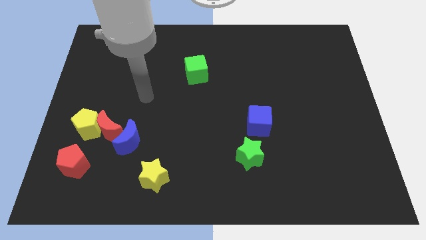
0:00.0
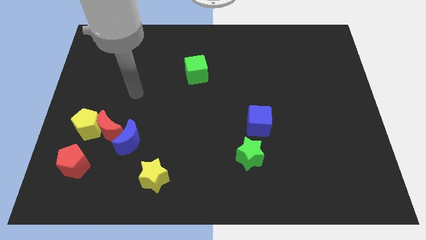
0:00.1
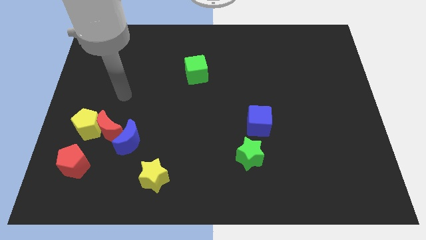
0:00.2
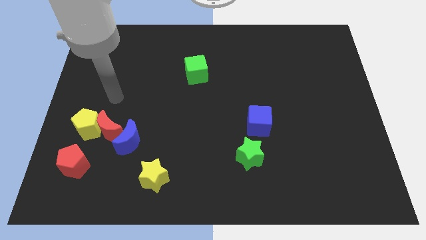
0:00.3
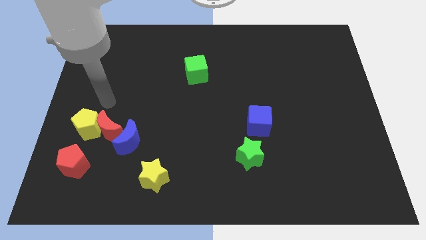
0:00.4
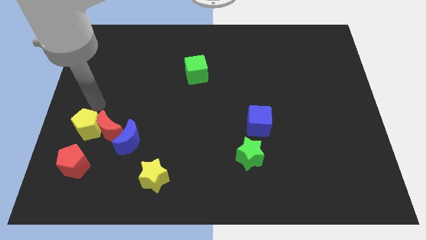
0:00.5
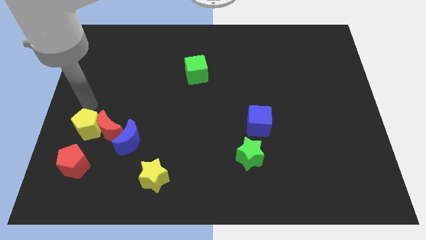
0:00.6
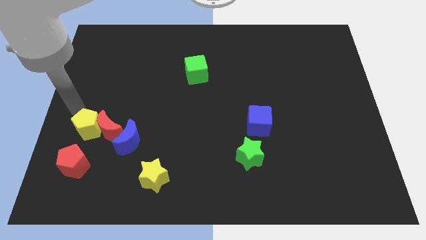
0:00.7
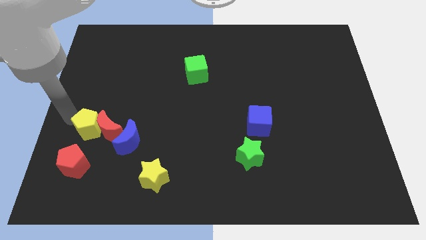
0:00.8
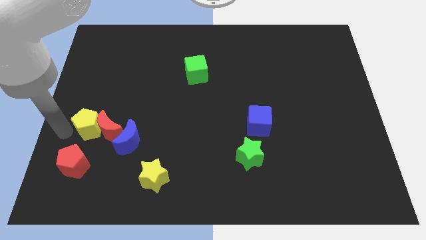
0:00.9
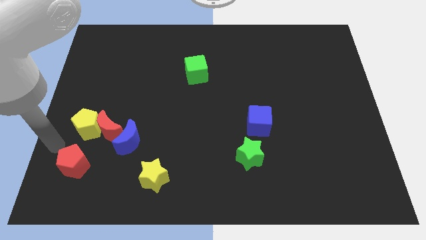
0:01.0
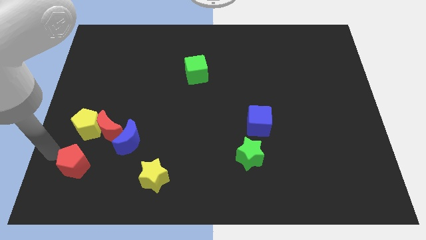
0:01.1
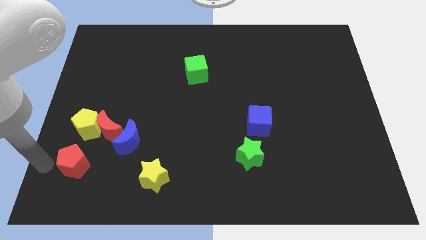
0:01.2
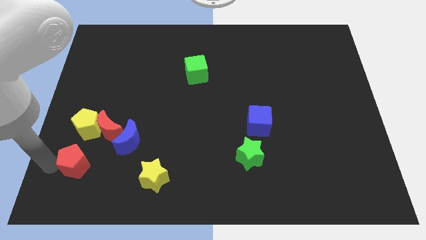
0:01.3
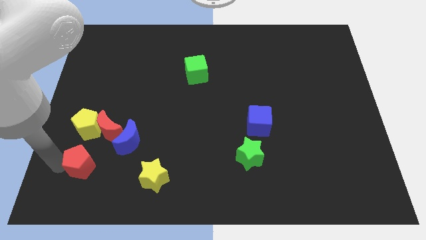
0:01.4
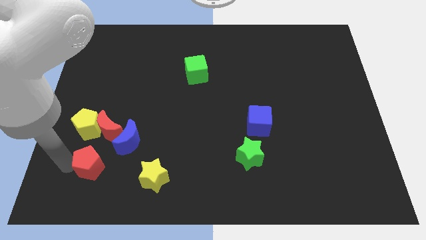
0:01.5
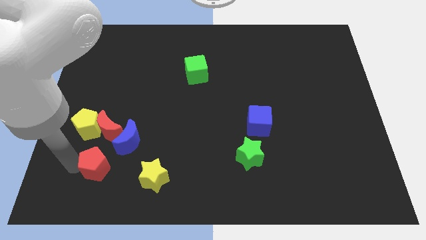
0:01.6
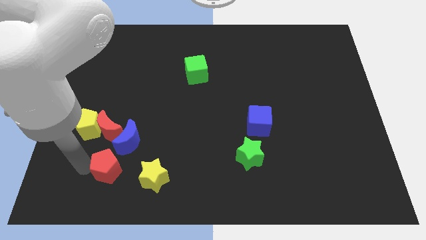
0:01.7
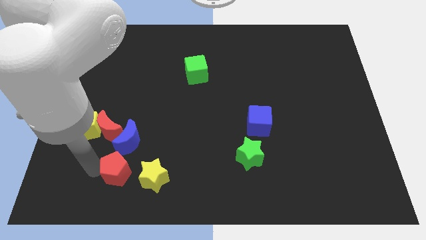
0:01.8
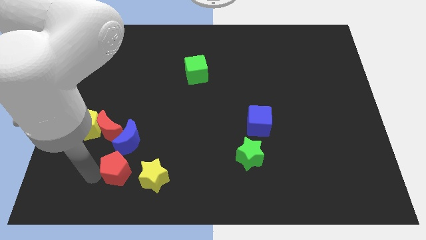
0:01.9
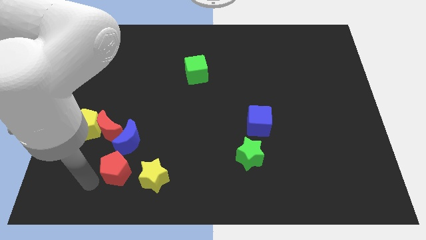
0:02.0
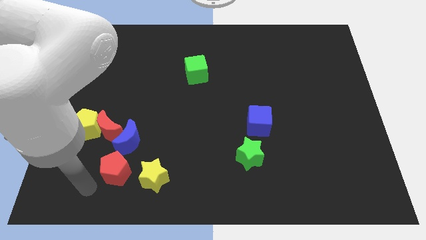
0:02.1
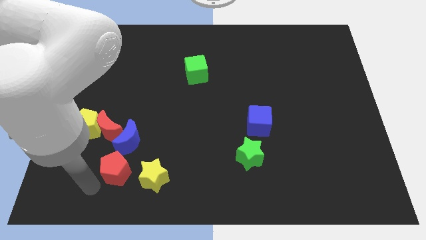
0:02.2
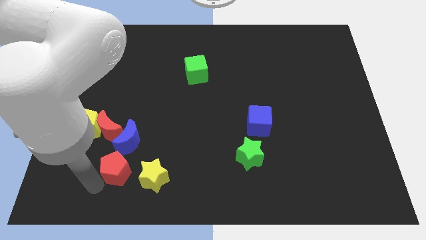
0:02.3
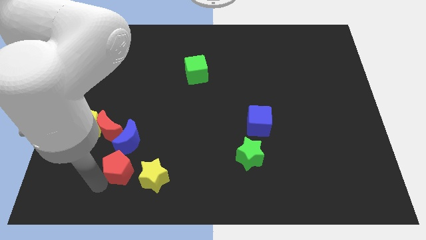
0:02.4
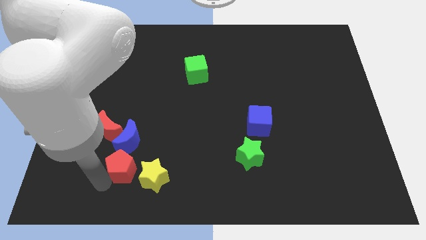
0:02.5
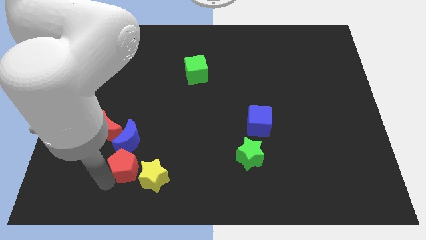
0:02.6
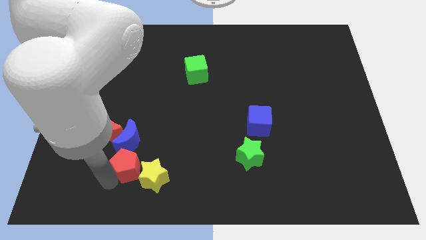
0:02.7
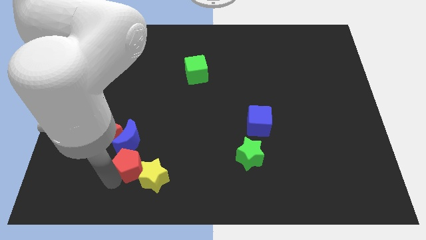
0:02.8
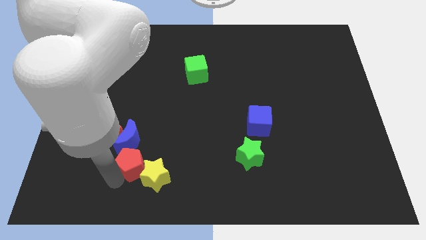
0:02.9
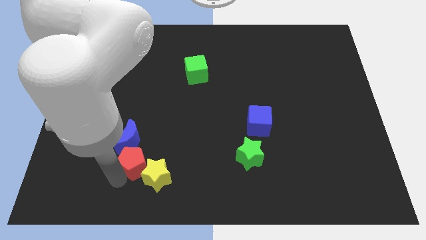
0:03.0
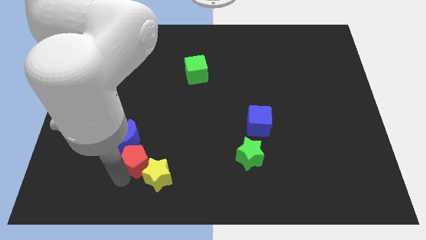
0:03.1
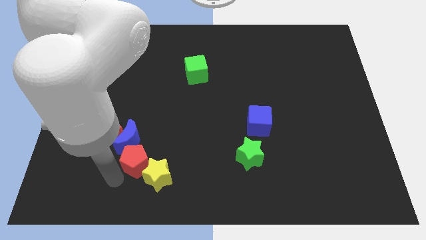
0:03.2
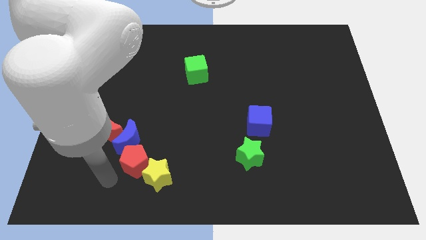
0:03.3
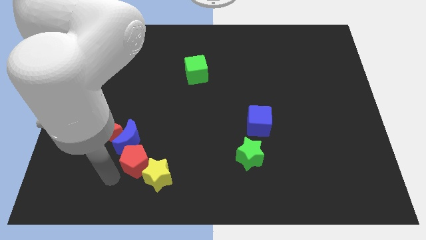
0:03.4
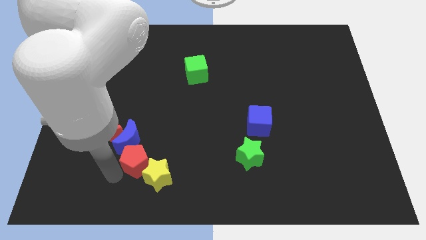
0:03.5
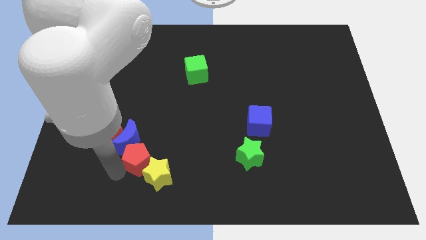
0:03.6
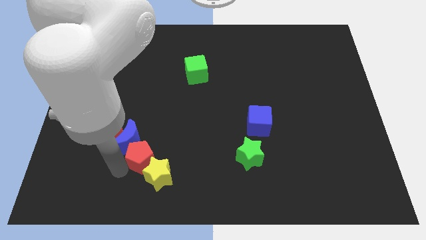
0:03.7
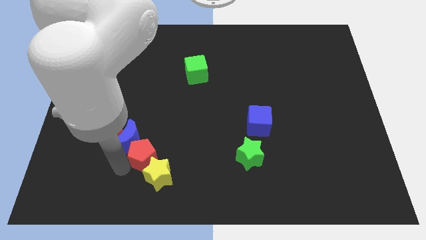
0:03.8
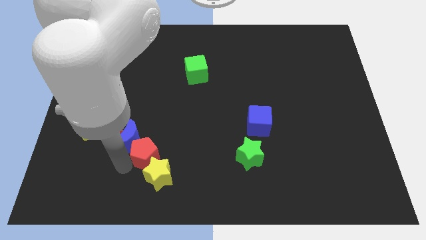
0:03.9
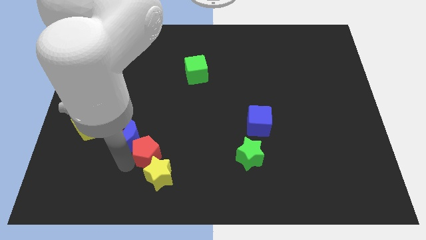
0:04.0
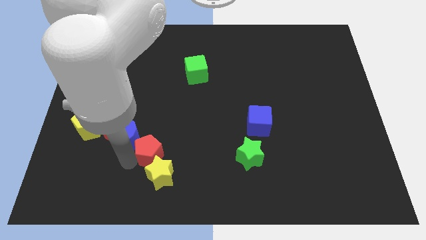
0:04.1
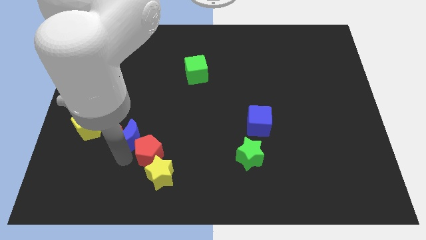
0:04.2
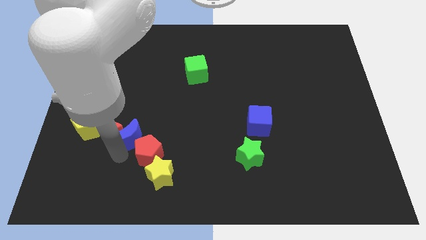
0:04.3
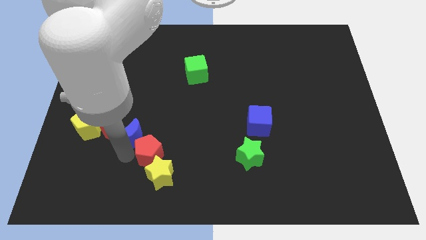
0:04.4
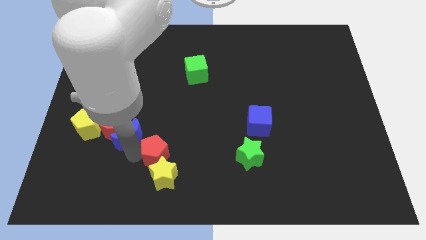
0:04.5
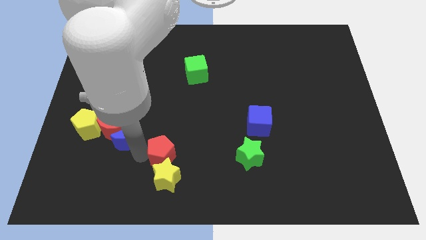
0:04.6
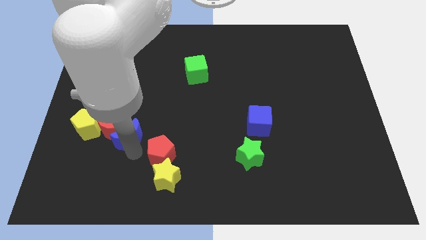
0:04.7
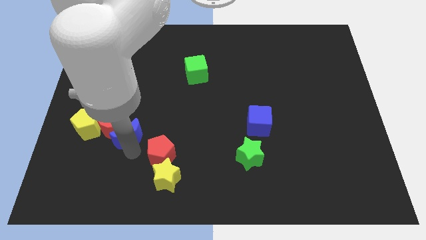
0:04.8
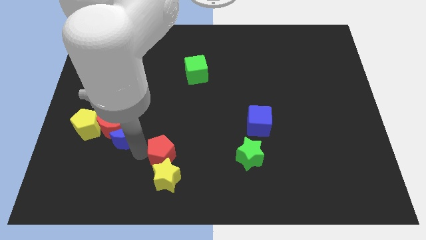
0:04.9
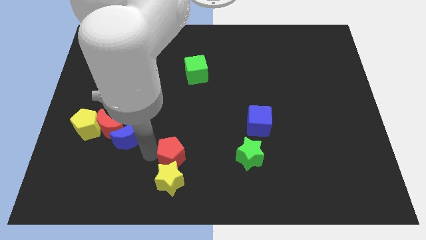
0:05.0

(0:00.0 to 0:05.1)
slide the red pentagon to the right

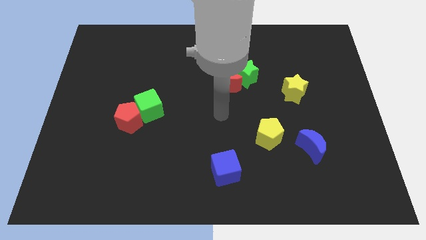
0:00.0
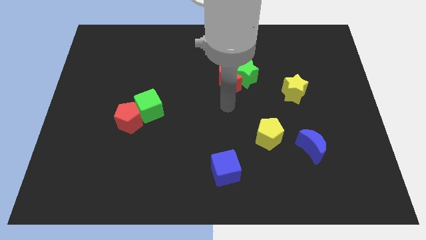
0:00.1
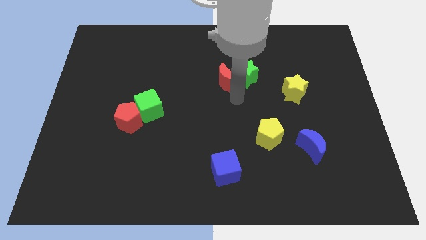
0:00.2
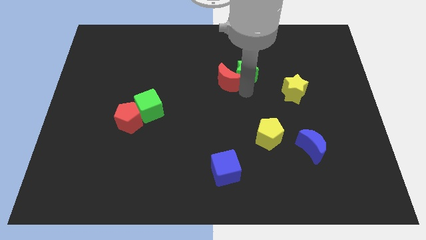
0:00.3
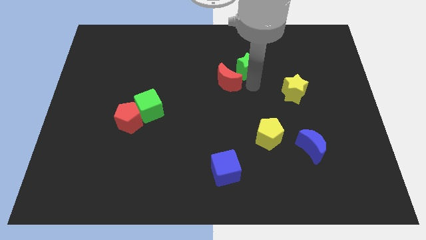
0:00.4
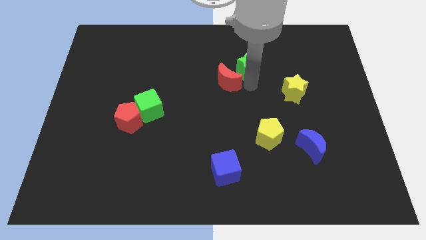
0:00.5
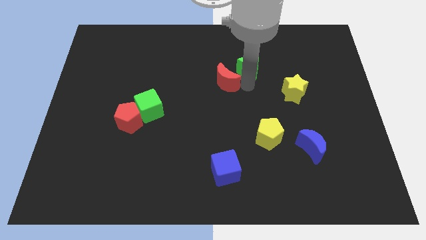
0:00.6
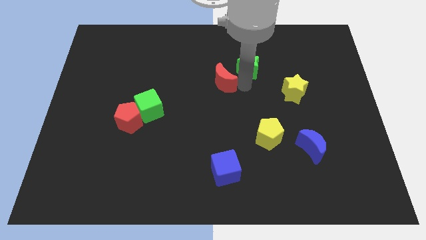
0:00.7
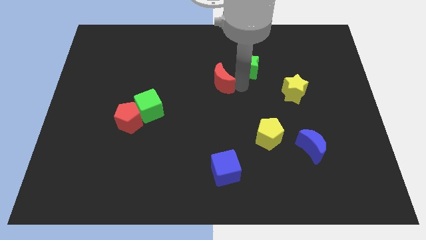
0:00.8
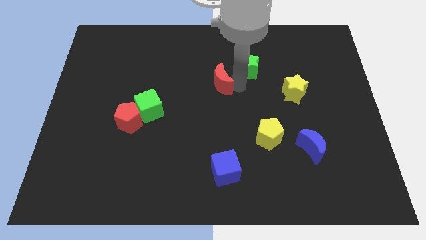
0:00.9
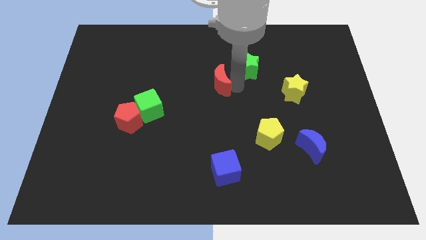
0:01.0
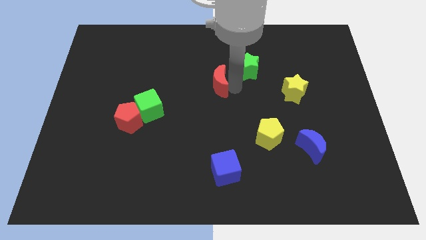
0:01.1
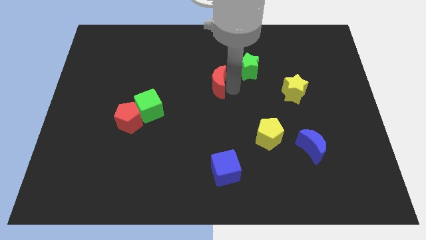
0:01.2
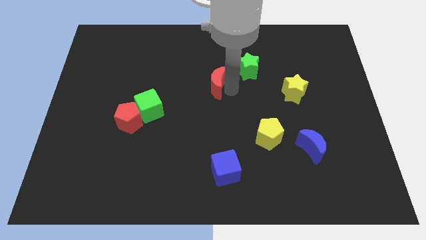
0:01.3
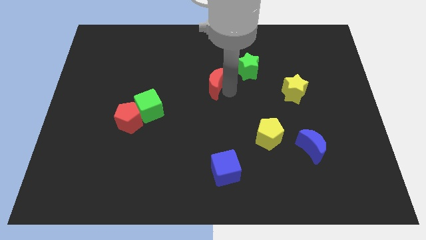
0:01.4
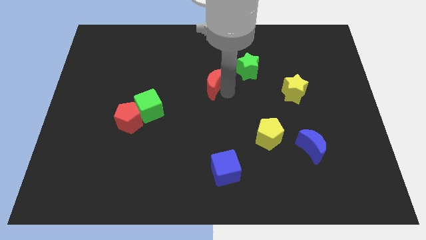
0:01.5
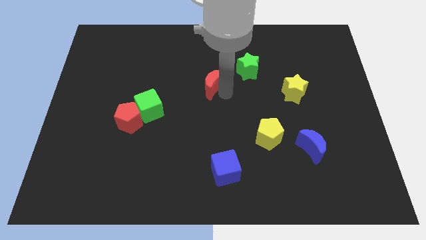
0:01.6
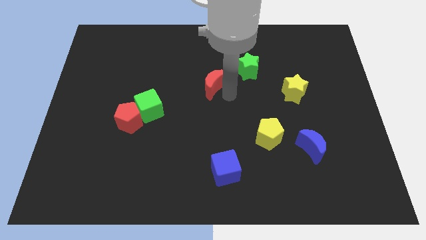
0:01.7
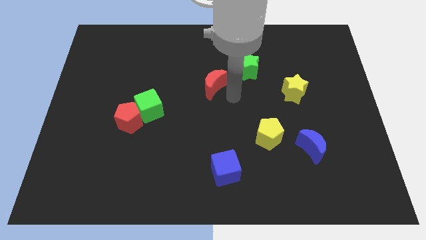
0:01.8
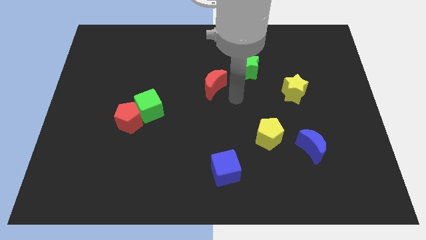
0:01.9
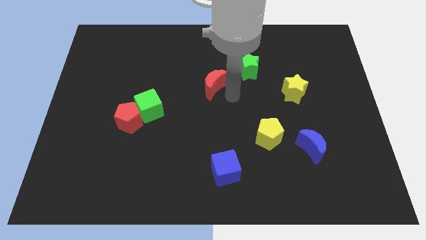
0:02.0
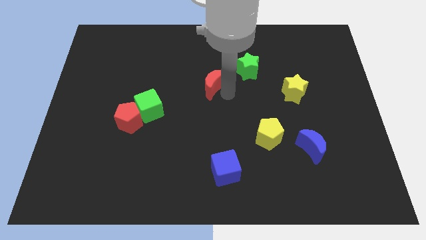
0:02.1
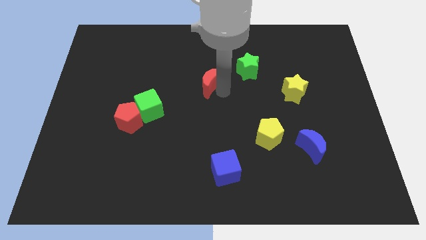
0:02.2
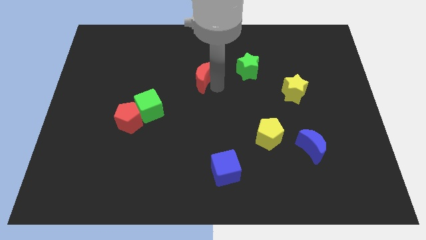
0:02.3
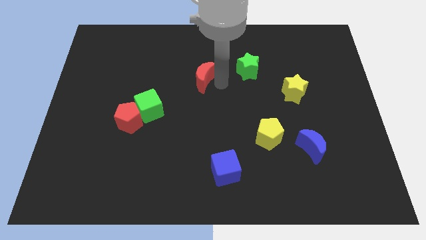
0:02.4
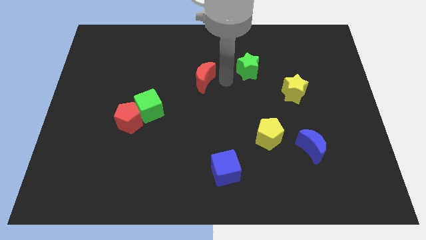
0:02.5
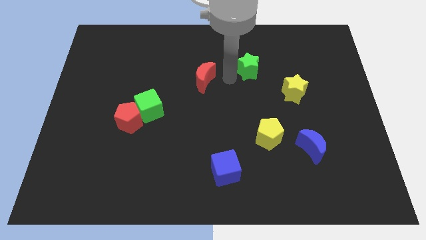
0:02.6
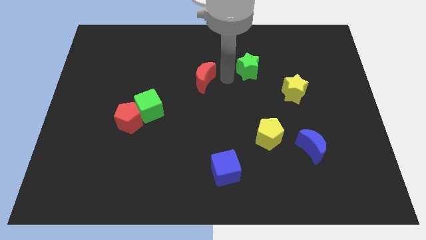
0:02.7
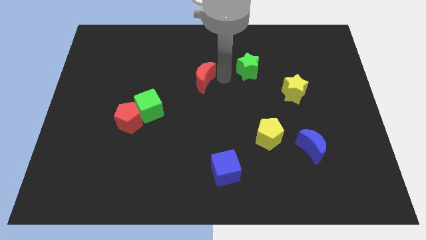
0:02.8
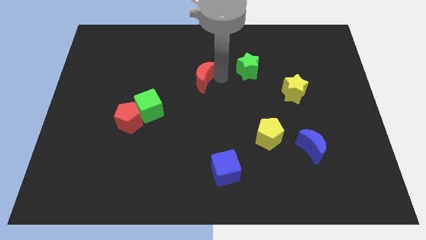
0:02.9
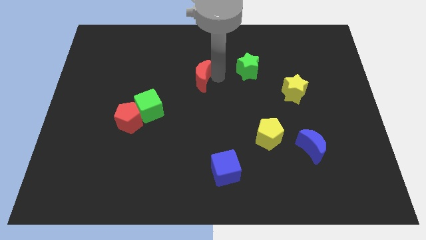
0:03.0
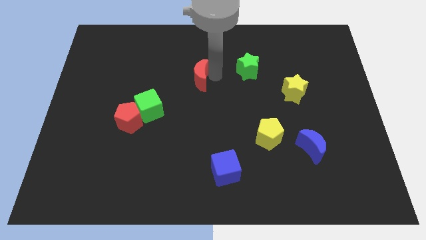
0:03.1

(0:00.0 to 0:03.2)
slightly push the red moon to the left
